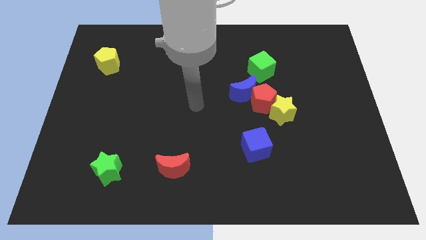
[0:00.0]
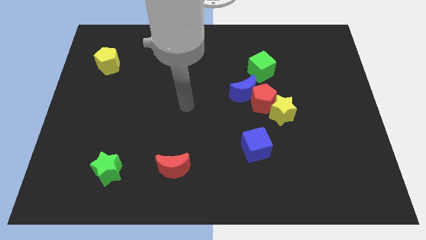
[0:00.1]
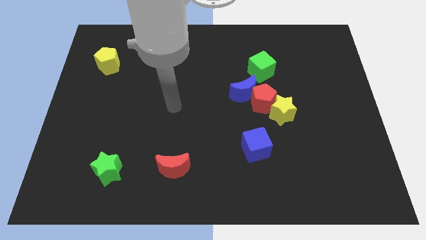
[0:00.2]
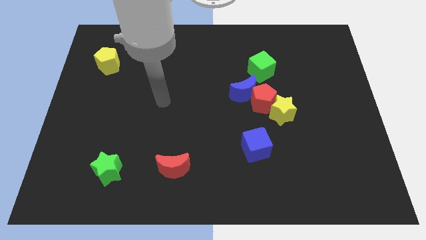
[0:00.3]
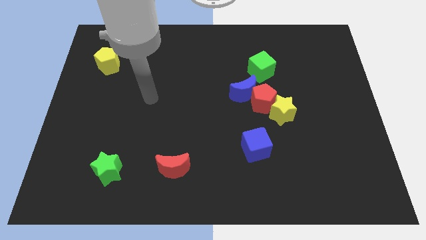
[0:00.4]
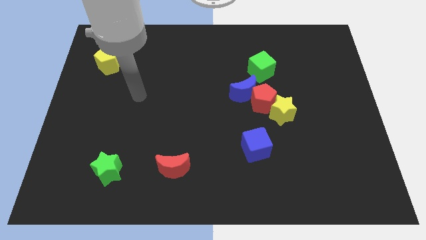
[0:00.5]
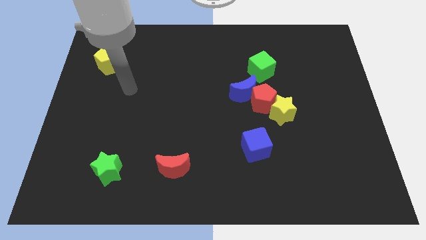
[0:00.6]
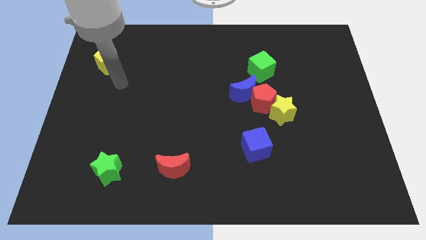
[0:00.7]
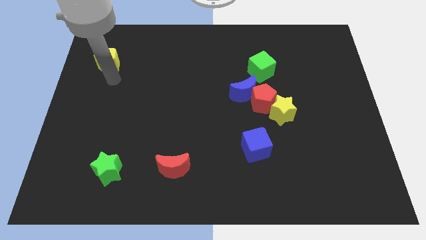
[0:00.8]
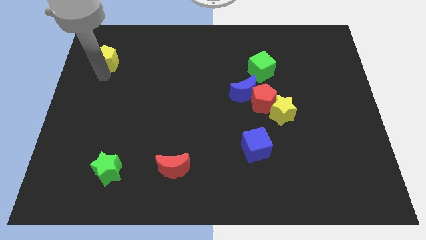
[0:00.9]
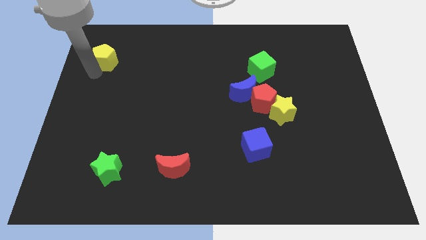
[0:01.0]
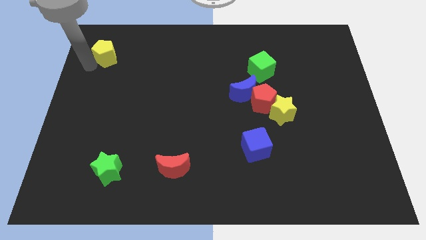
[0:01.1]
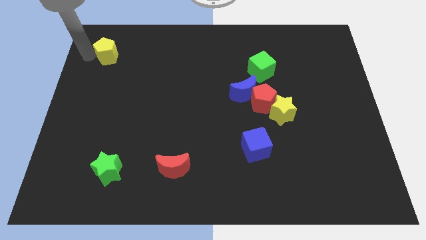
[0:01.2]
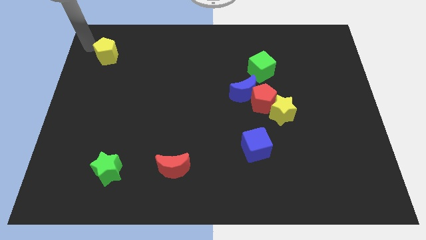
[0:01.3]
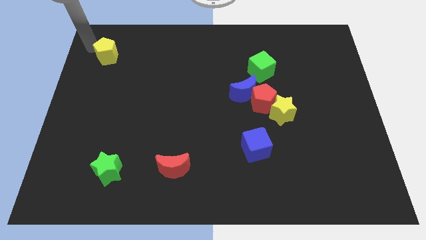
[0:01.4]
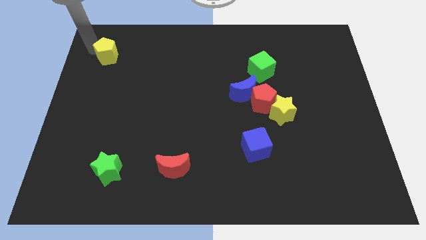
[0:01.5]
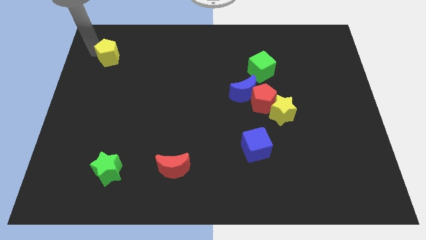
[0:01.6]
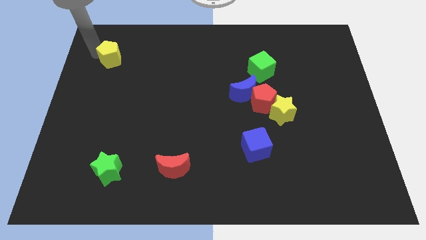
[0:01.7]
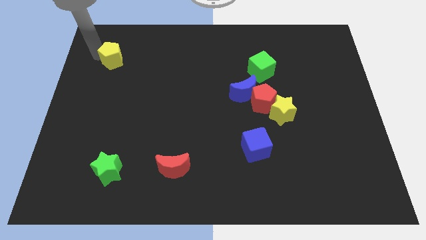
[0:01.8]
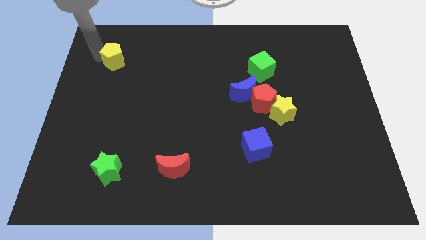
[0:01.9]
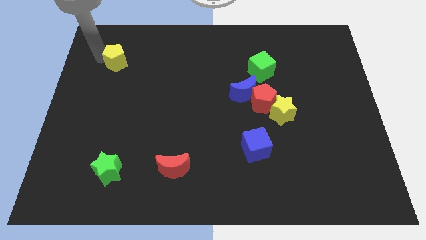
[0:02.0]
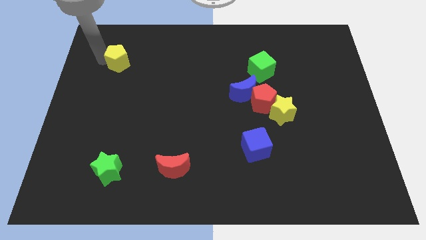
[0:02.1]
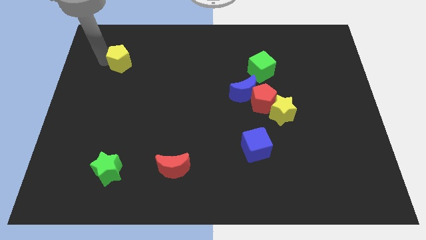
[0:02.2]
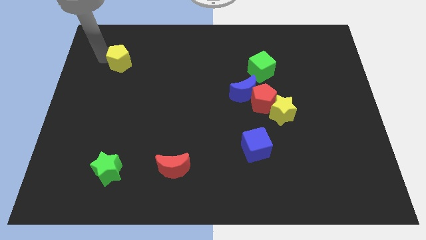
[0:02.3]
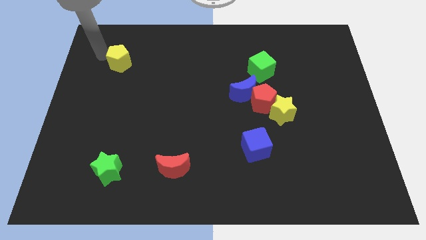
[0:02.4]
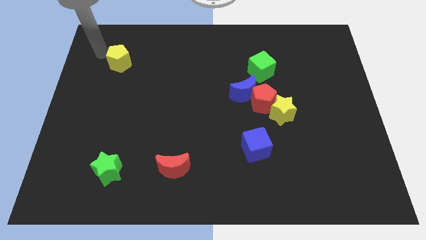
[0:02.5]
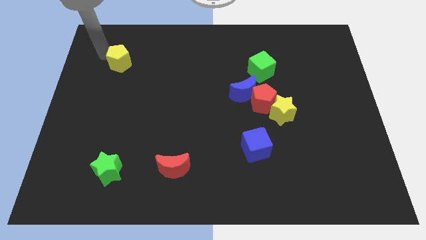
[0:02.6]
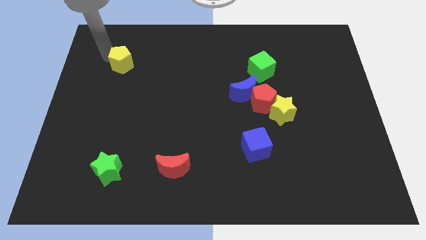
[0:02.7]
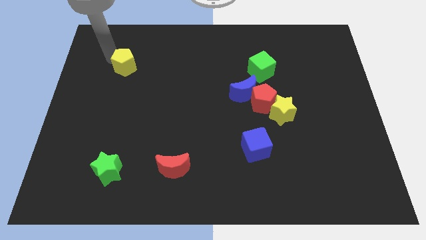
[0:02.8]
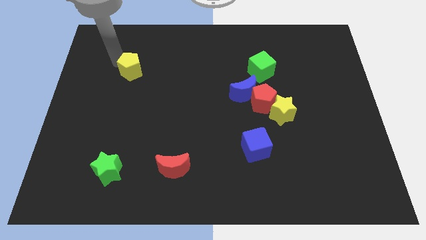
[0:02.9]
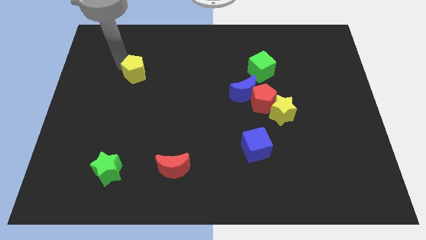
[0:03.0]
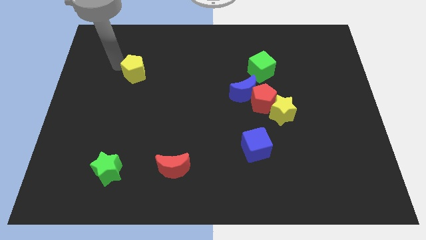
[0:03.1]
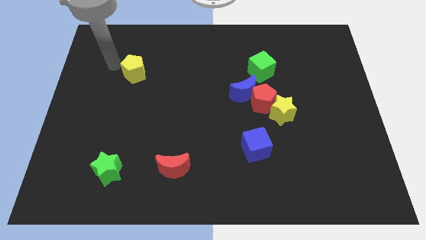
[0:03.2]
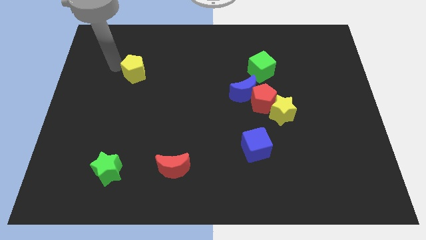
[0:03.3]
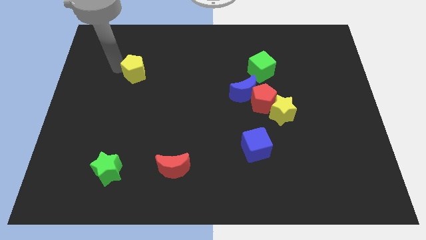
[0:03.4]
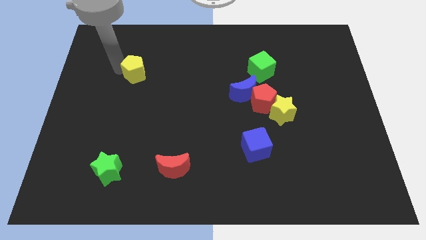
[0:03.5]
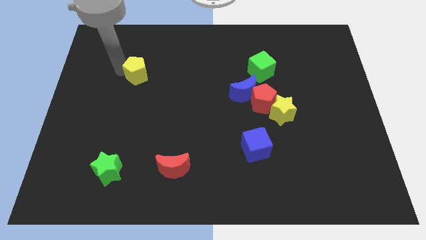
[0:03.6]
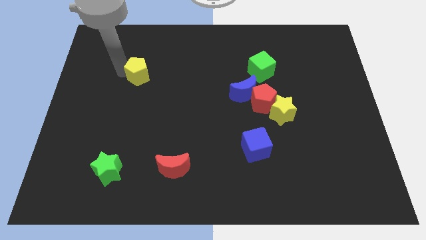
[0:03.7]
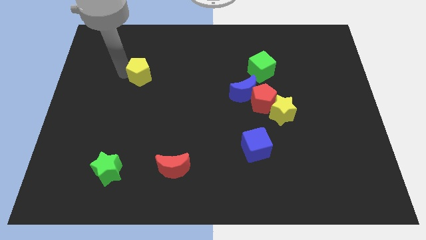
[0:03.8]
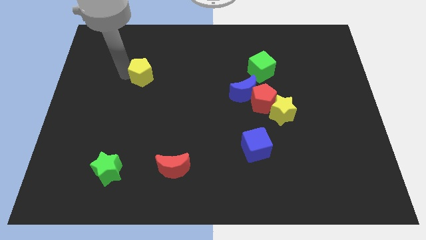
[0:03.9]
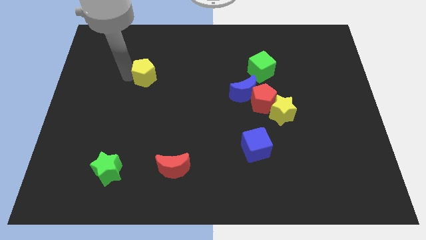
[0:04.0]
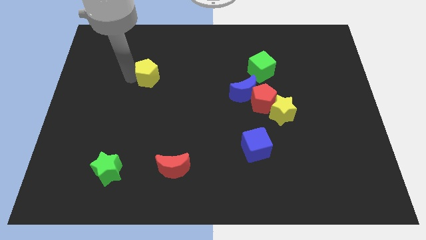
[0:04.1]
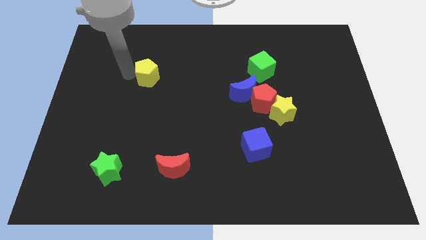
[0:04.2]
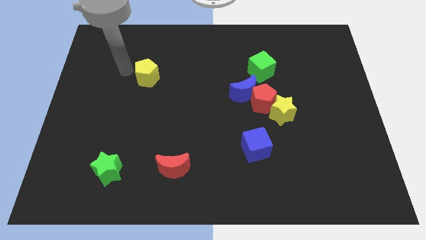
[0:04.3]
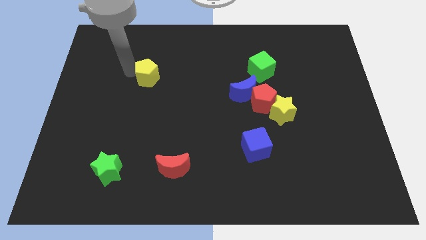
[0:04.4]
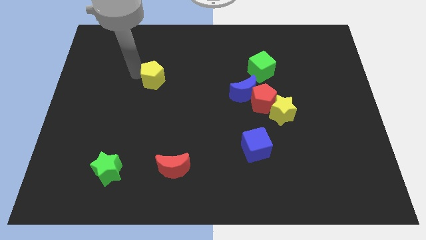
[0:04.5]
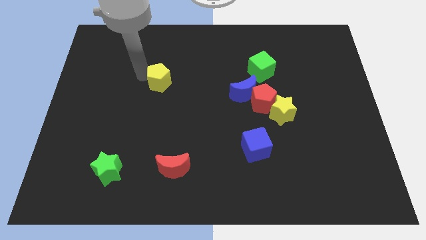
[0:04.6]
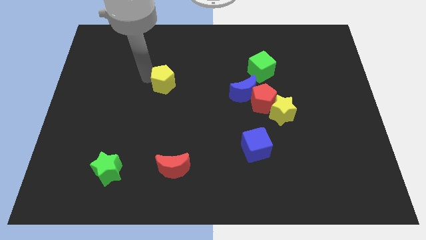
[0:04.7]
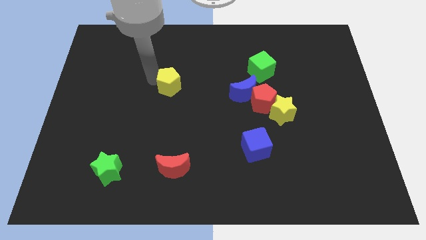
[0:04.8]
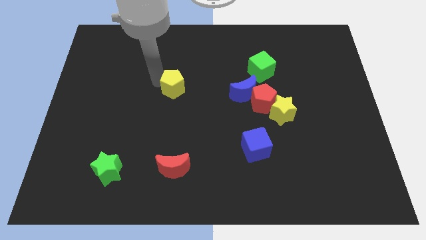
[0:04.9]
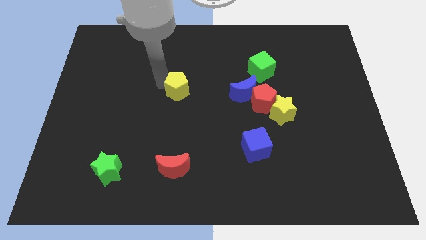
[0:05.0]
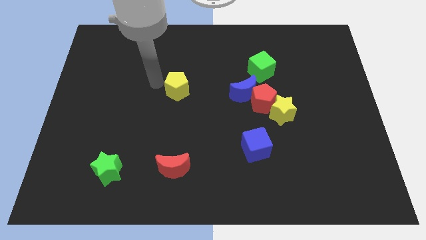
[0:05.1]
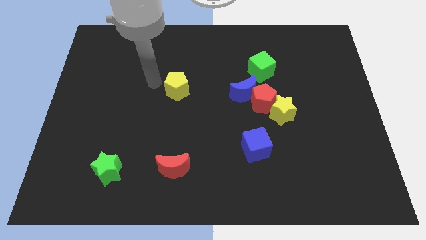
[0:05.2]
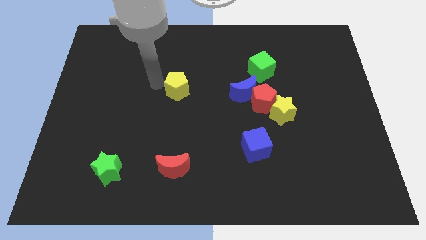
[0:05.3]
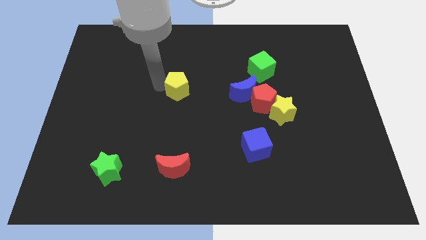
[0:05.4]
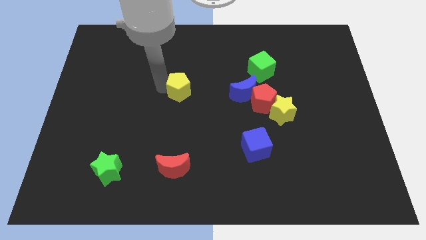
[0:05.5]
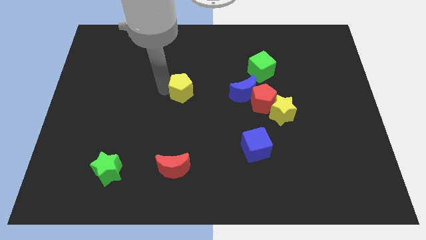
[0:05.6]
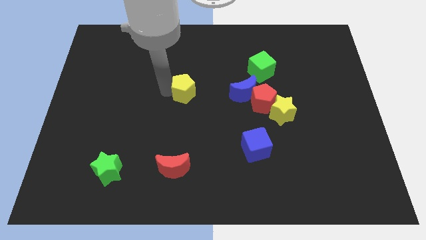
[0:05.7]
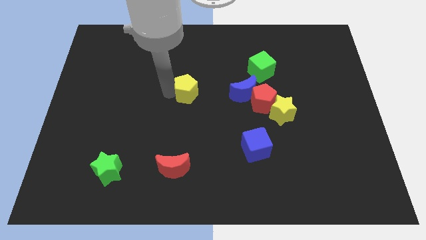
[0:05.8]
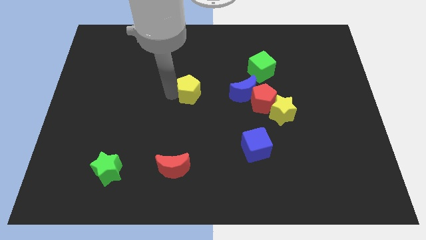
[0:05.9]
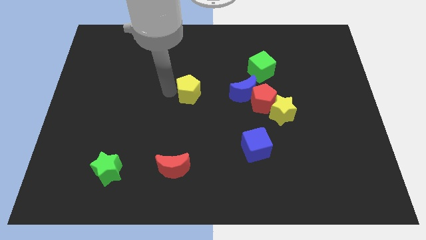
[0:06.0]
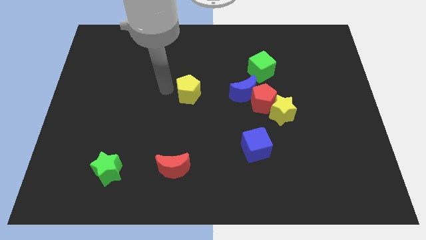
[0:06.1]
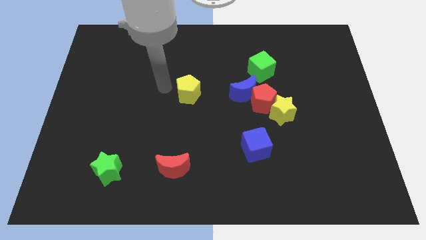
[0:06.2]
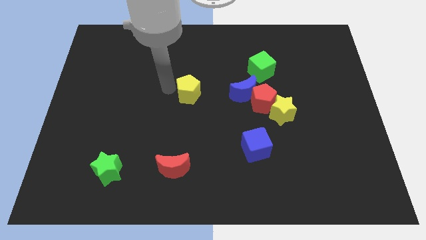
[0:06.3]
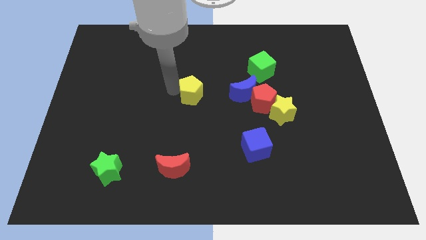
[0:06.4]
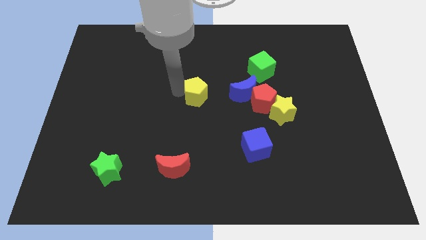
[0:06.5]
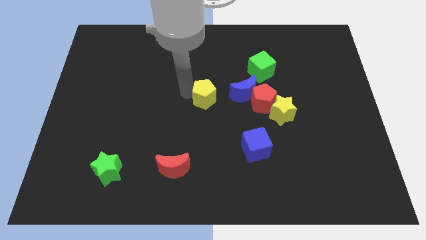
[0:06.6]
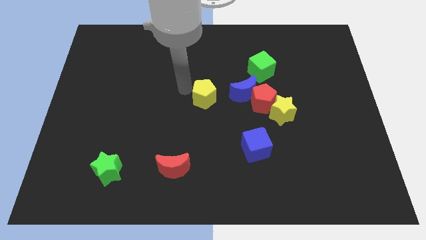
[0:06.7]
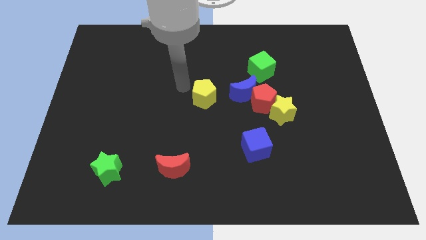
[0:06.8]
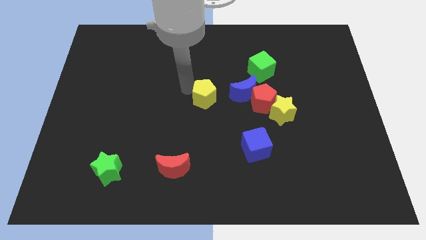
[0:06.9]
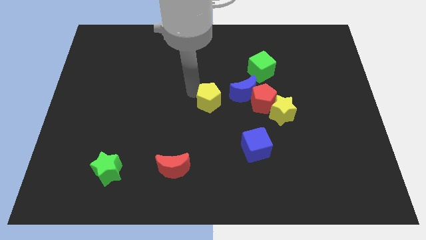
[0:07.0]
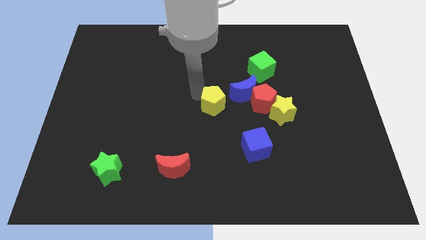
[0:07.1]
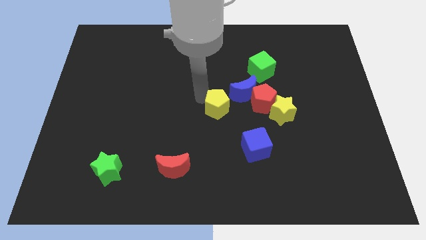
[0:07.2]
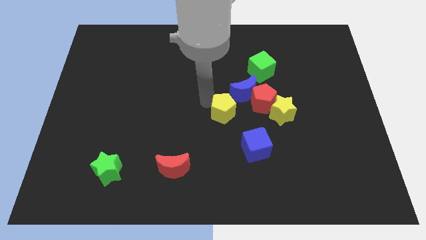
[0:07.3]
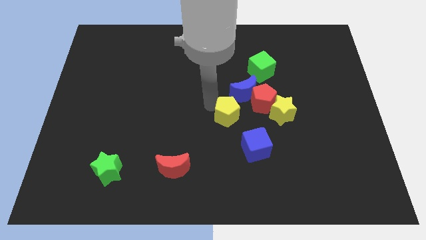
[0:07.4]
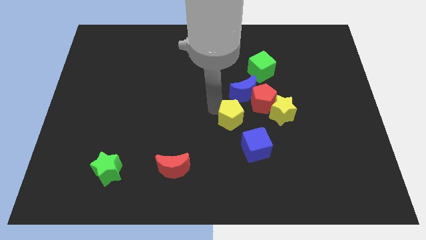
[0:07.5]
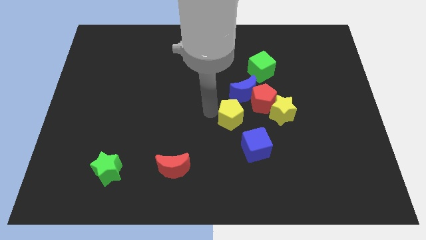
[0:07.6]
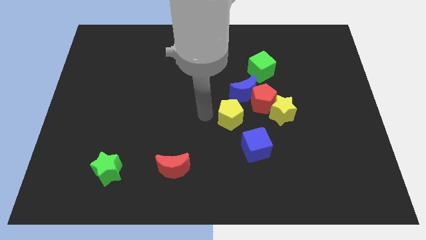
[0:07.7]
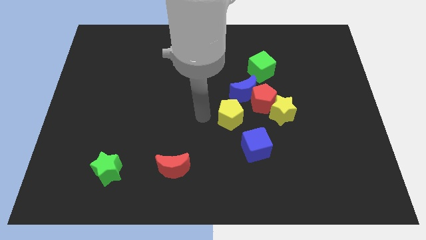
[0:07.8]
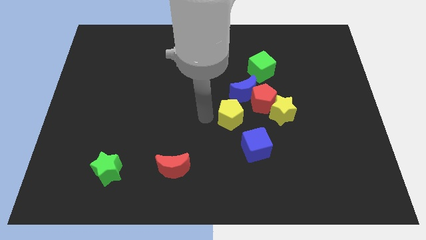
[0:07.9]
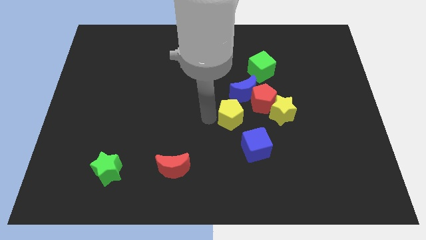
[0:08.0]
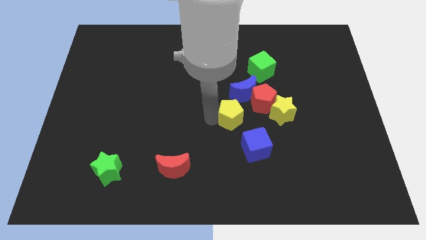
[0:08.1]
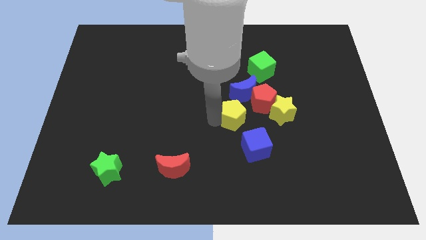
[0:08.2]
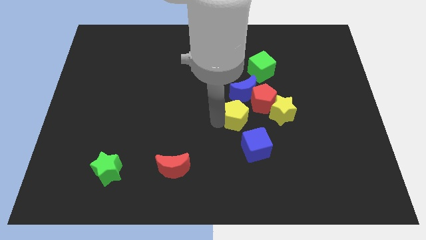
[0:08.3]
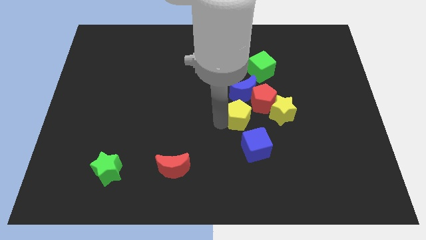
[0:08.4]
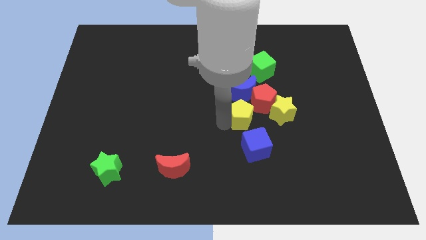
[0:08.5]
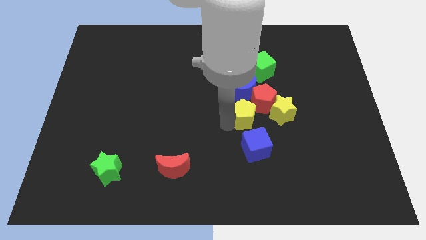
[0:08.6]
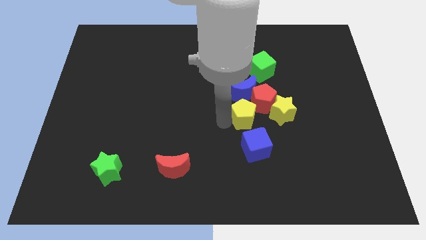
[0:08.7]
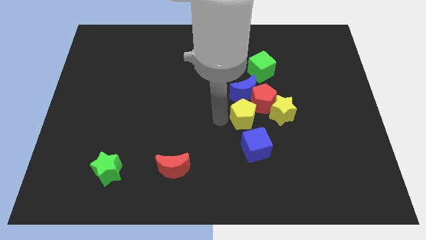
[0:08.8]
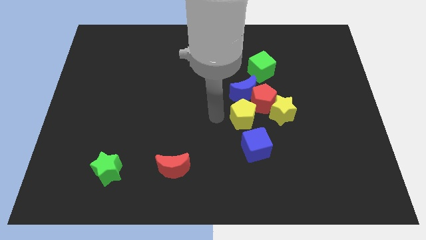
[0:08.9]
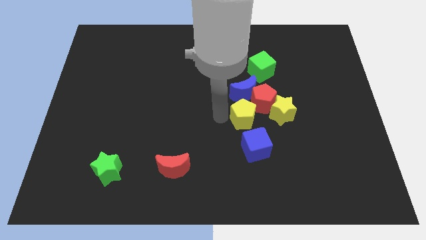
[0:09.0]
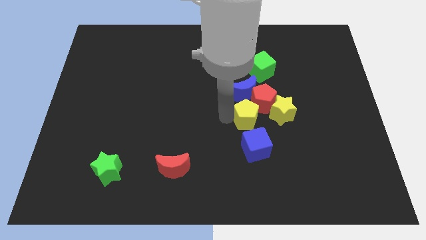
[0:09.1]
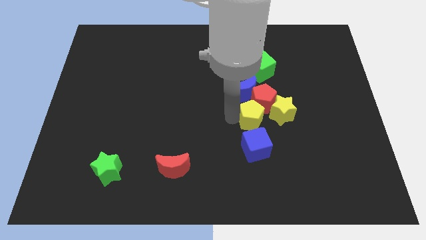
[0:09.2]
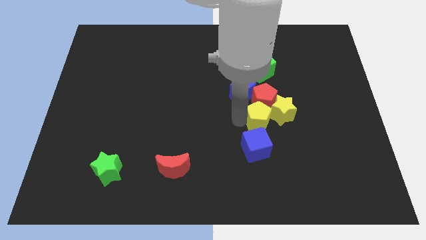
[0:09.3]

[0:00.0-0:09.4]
put the yellow pentagon to the bottom of the green cube
